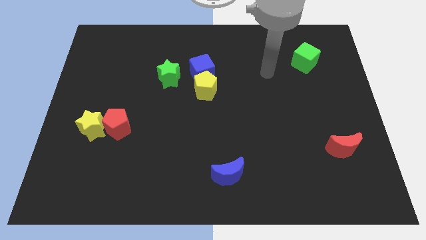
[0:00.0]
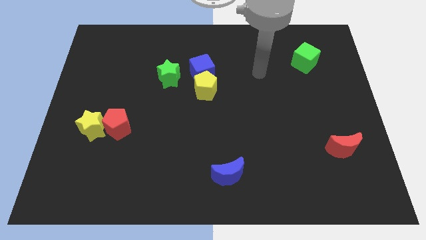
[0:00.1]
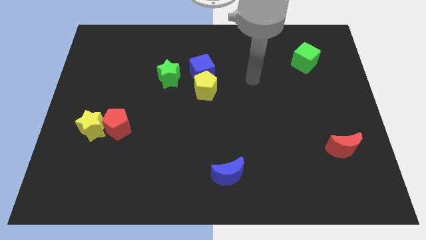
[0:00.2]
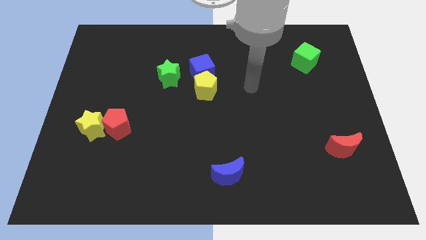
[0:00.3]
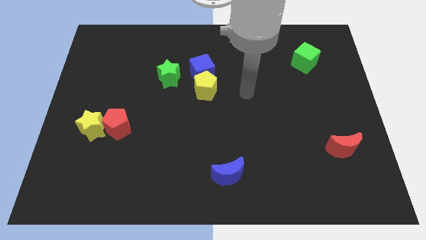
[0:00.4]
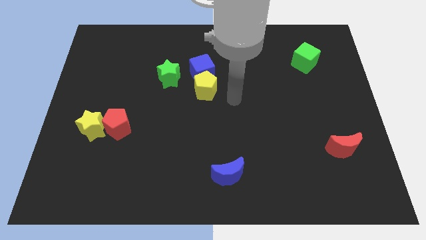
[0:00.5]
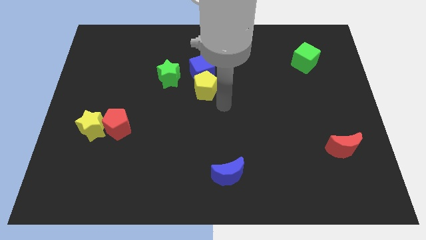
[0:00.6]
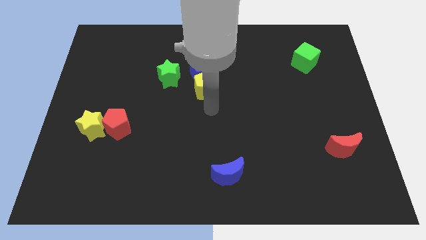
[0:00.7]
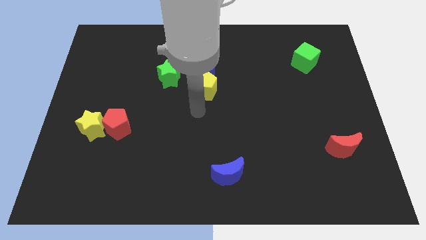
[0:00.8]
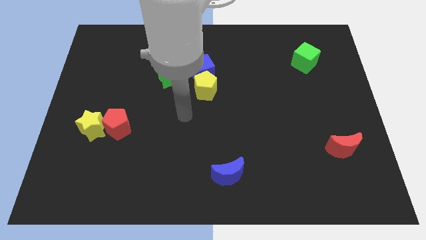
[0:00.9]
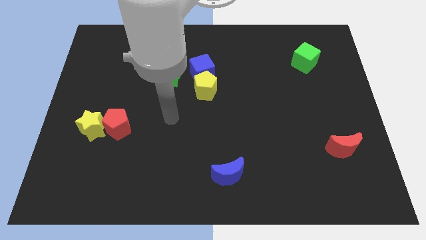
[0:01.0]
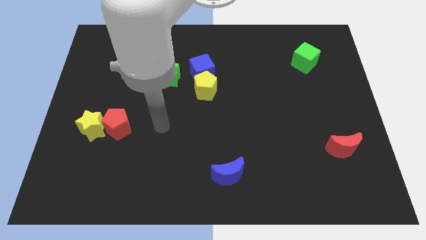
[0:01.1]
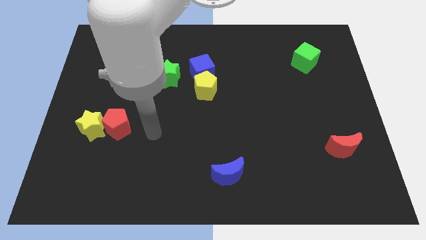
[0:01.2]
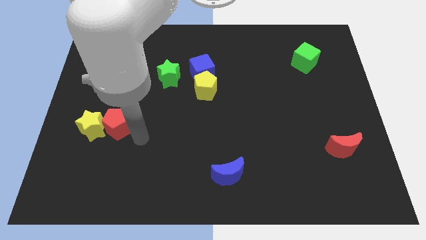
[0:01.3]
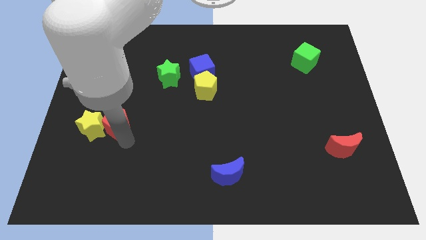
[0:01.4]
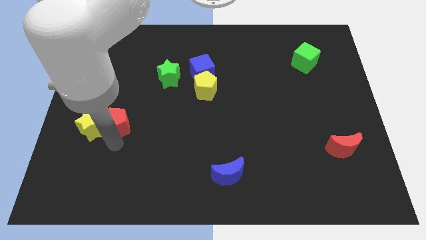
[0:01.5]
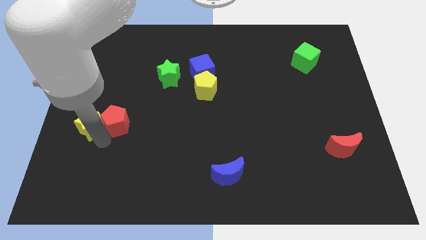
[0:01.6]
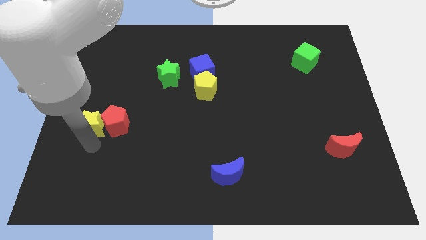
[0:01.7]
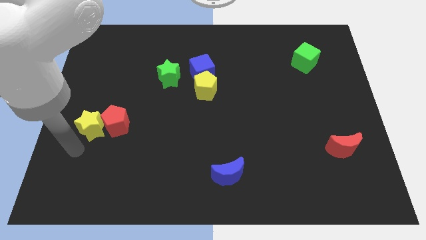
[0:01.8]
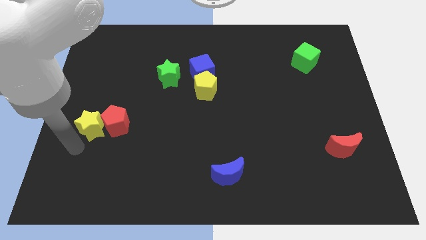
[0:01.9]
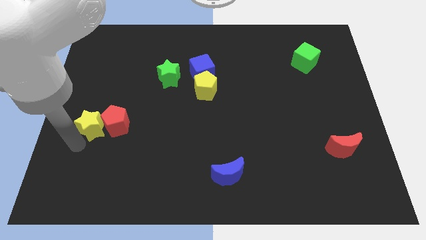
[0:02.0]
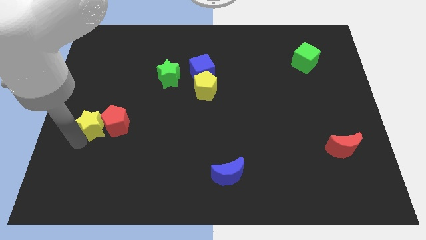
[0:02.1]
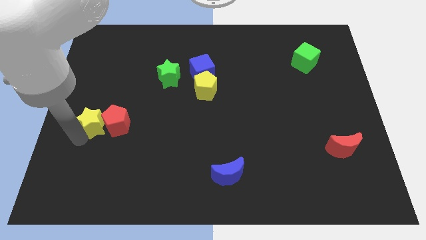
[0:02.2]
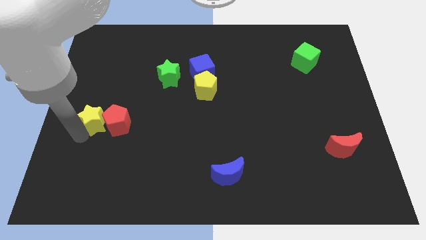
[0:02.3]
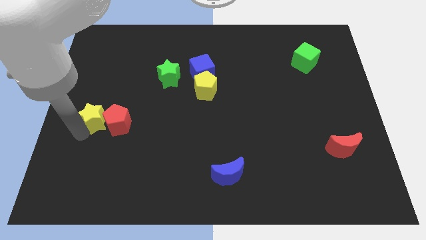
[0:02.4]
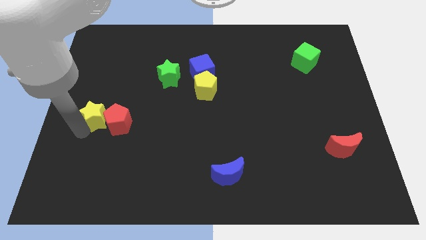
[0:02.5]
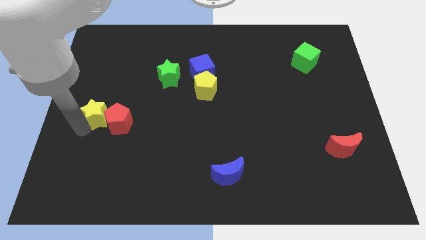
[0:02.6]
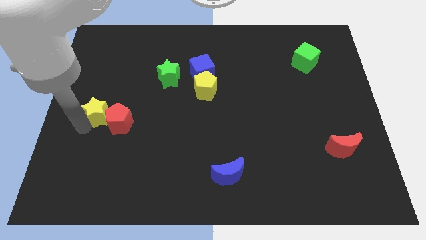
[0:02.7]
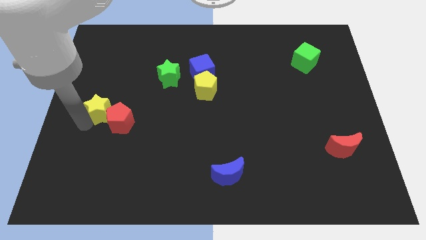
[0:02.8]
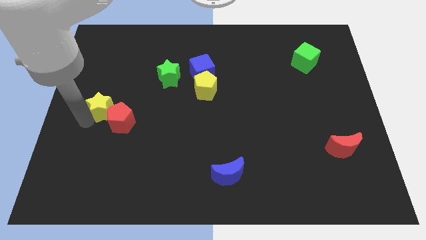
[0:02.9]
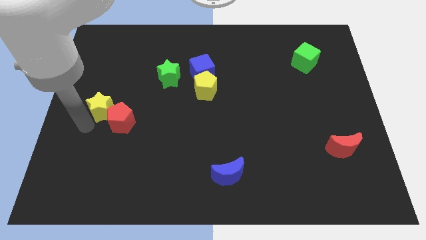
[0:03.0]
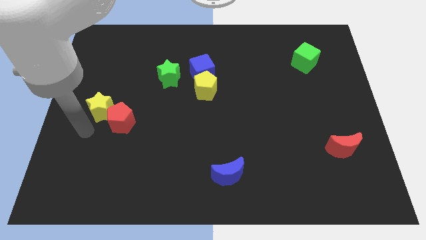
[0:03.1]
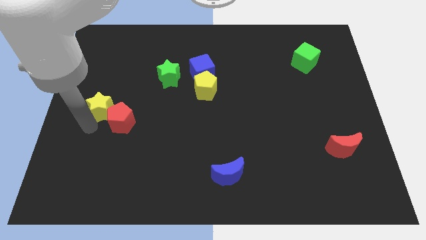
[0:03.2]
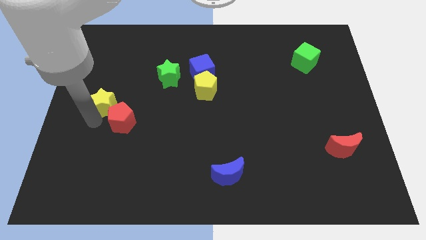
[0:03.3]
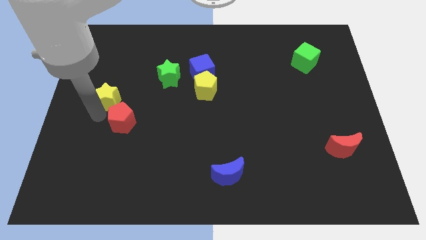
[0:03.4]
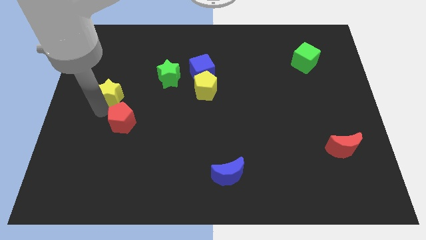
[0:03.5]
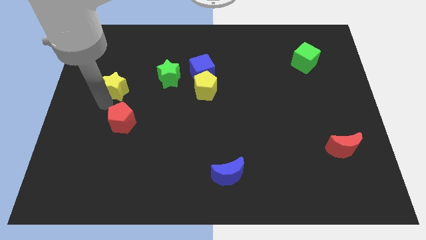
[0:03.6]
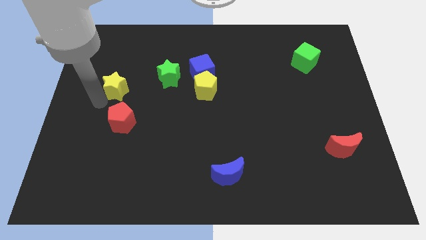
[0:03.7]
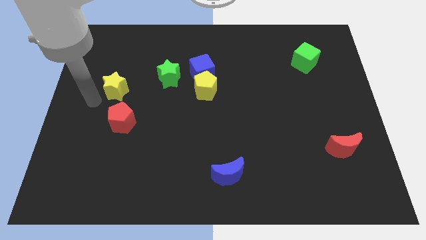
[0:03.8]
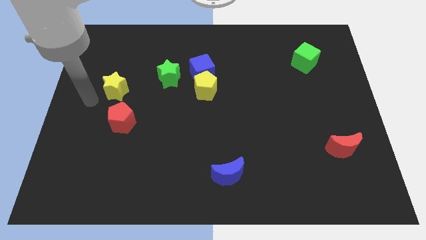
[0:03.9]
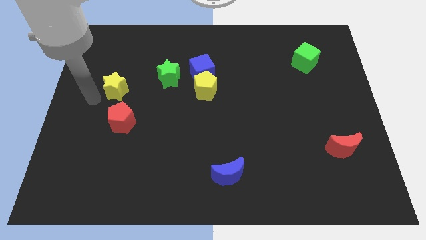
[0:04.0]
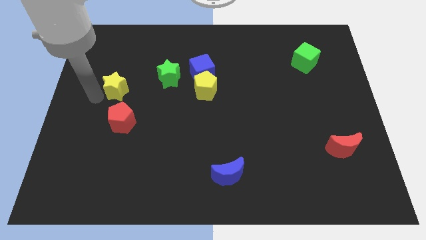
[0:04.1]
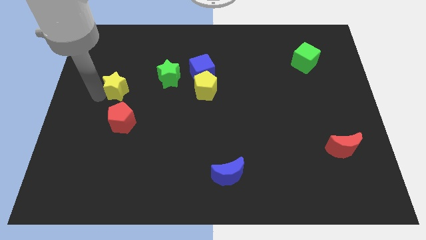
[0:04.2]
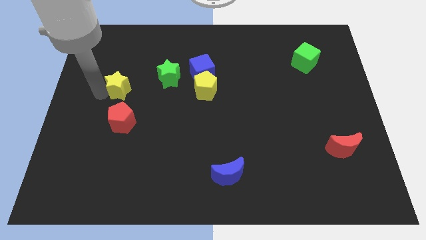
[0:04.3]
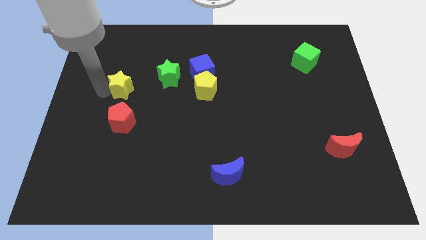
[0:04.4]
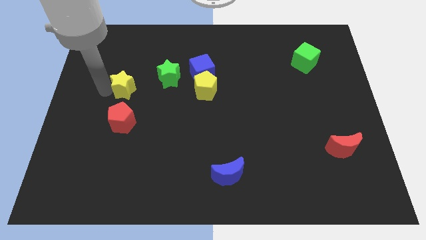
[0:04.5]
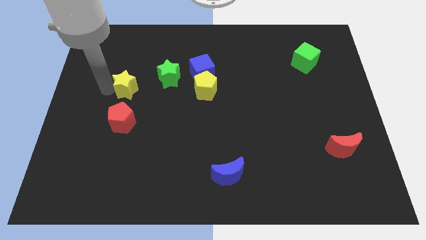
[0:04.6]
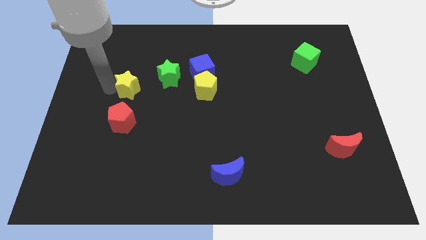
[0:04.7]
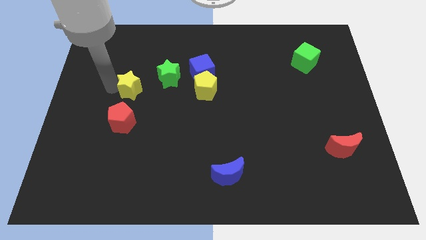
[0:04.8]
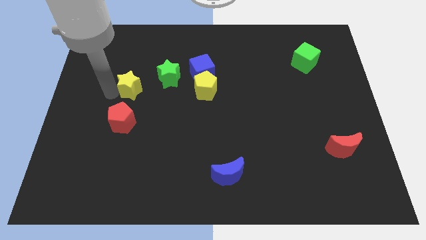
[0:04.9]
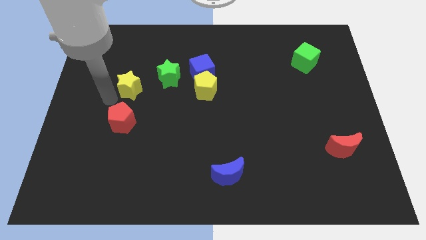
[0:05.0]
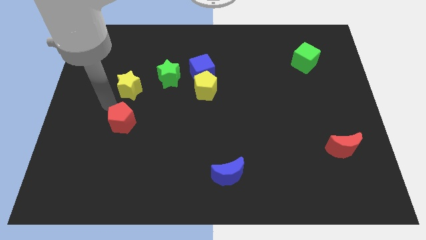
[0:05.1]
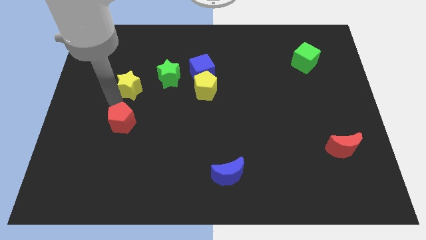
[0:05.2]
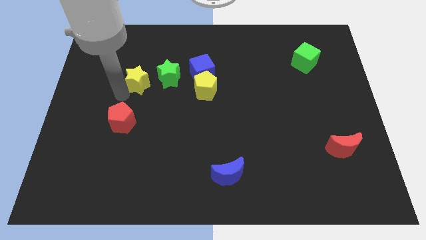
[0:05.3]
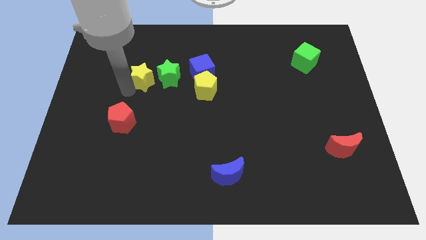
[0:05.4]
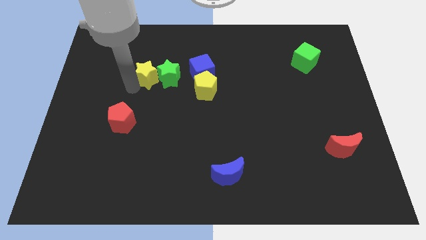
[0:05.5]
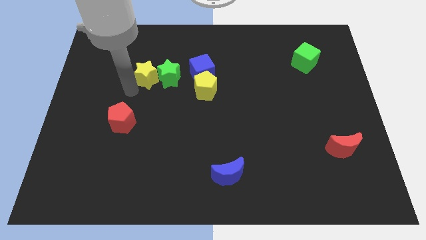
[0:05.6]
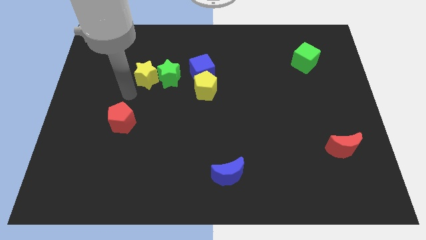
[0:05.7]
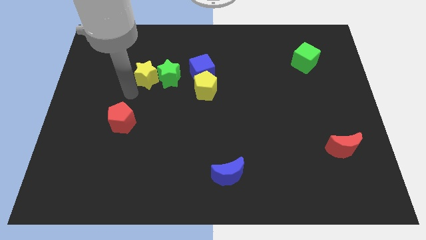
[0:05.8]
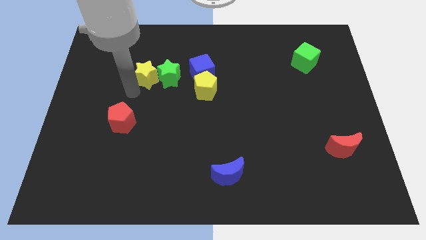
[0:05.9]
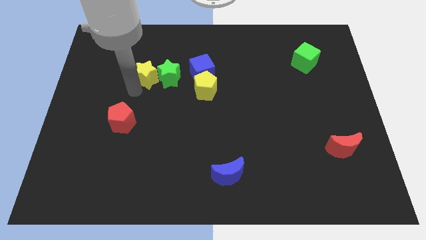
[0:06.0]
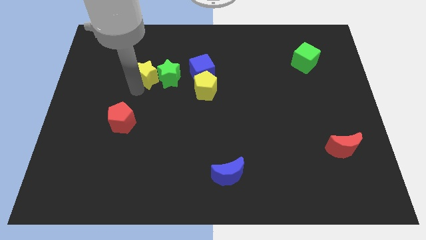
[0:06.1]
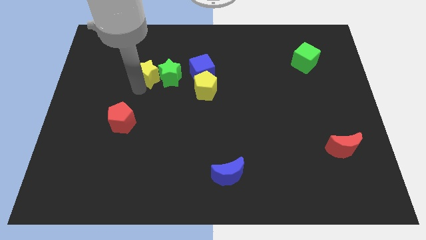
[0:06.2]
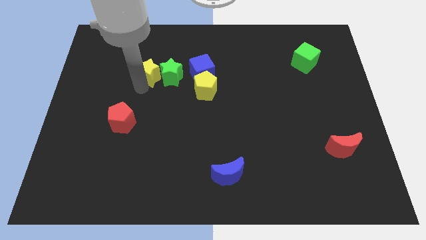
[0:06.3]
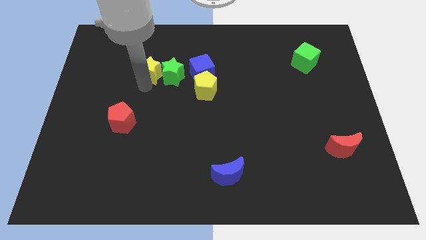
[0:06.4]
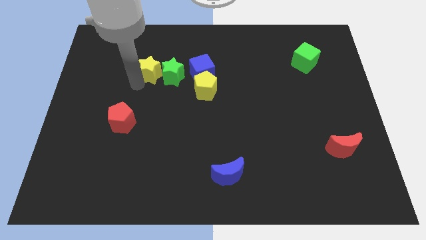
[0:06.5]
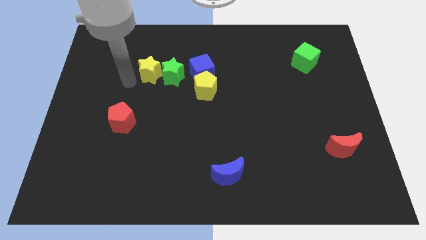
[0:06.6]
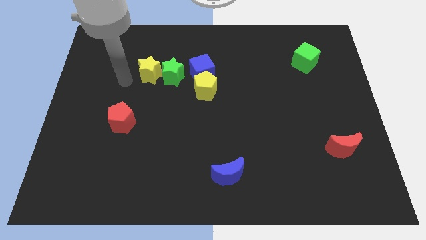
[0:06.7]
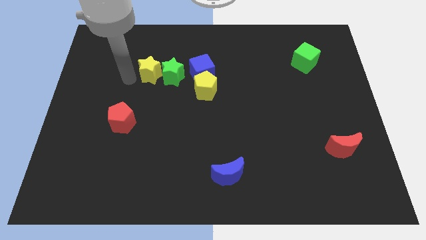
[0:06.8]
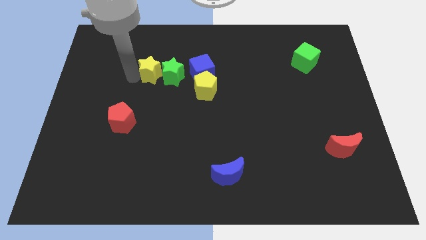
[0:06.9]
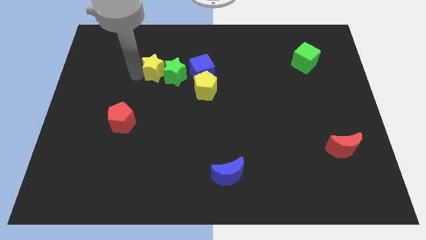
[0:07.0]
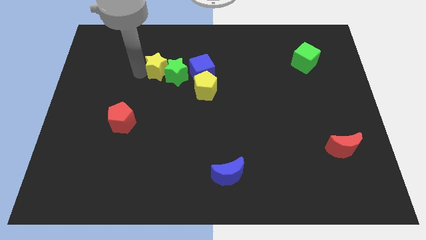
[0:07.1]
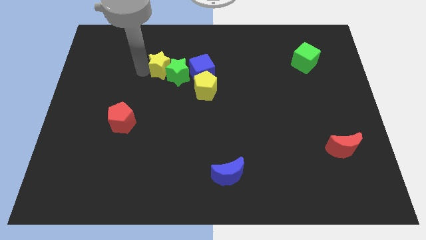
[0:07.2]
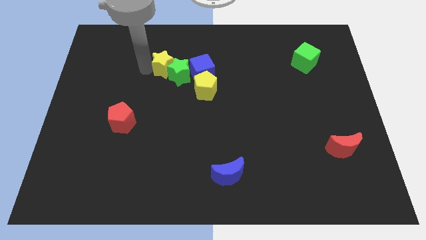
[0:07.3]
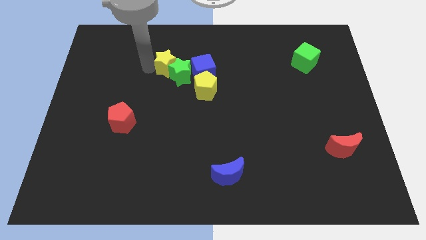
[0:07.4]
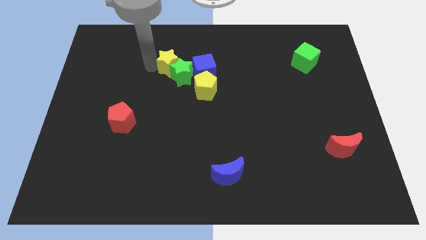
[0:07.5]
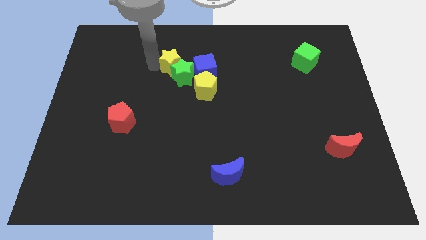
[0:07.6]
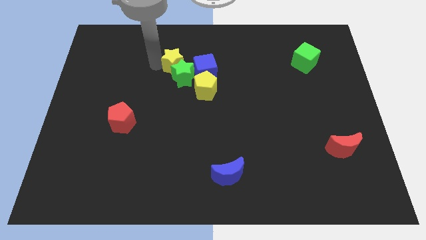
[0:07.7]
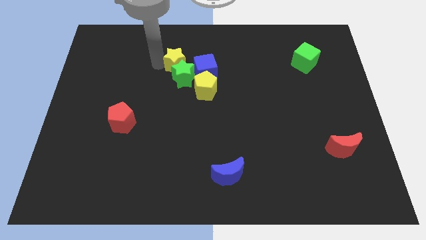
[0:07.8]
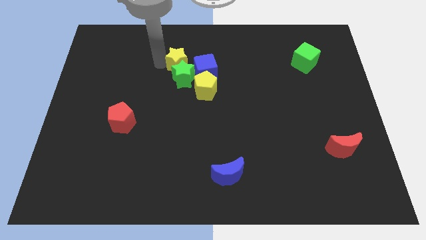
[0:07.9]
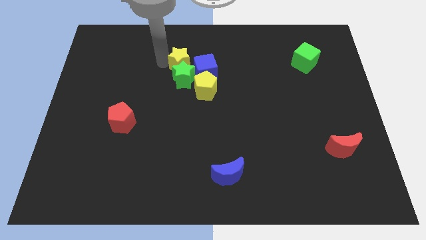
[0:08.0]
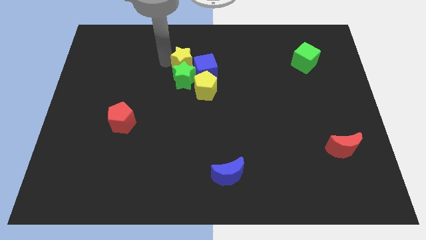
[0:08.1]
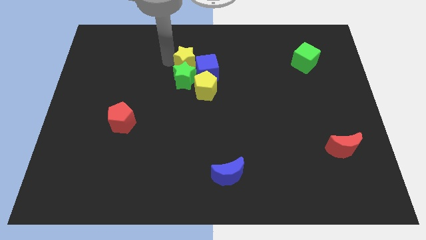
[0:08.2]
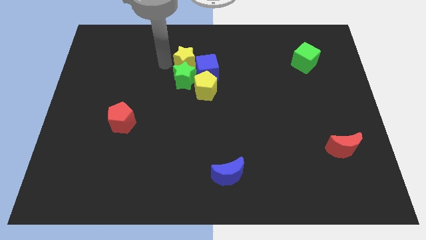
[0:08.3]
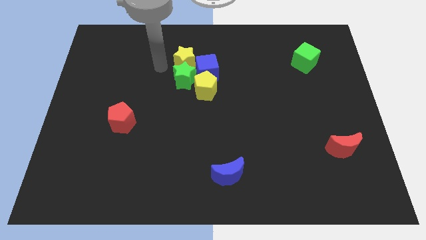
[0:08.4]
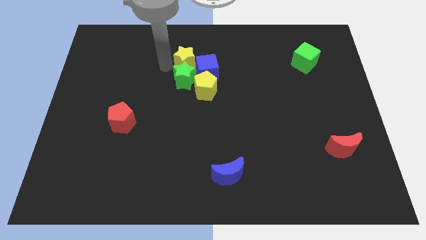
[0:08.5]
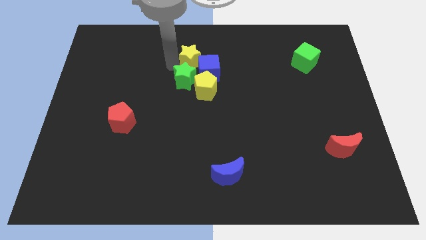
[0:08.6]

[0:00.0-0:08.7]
push the yellow star above the yellow pentagon
